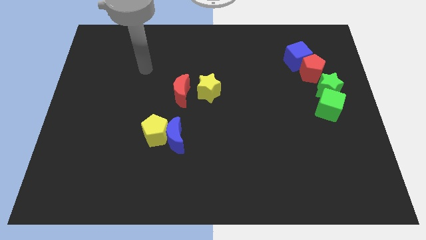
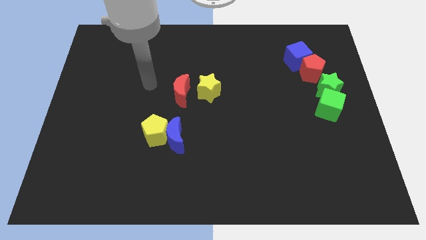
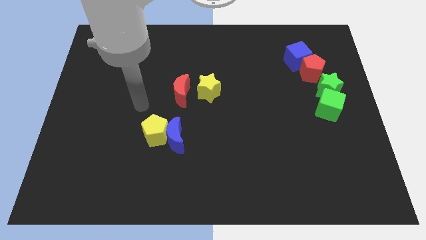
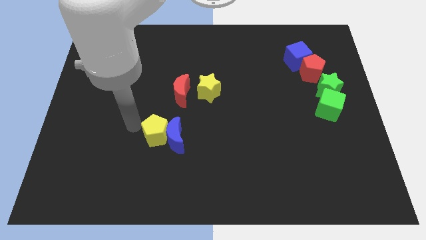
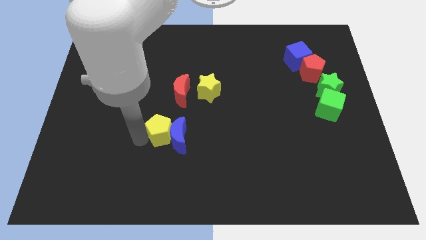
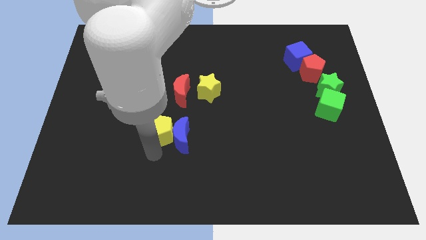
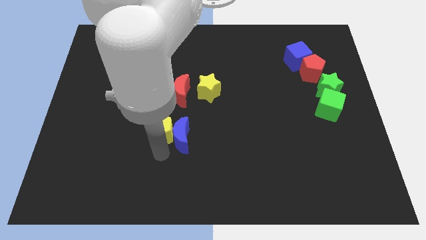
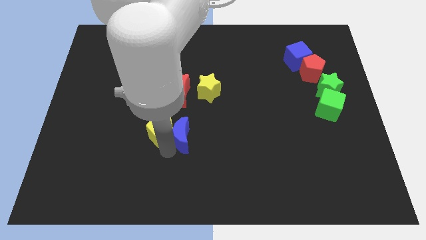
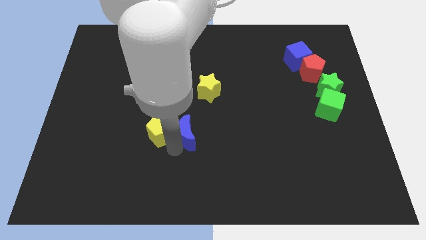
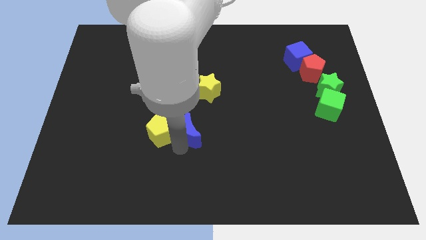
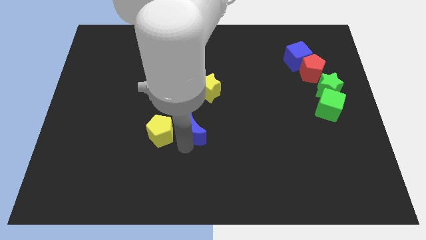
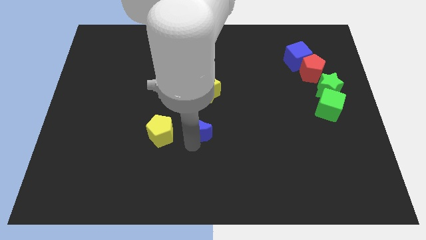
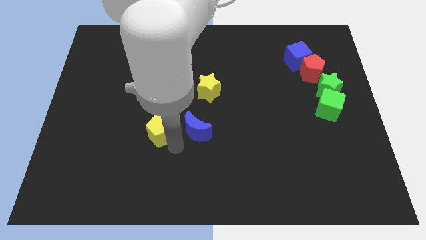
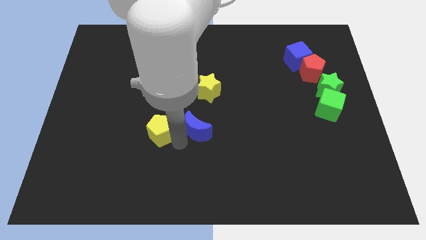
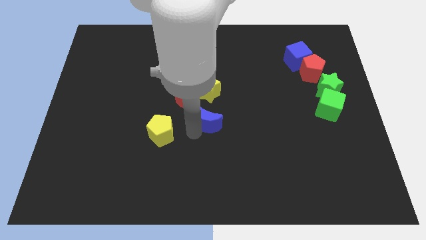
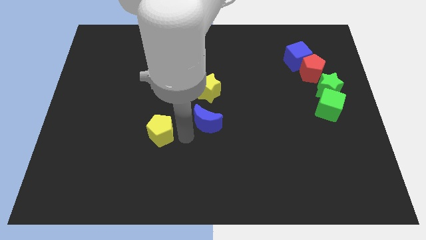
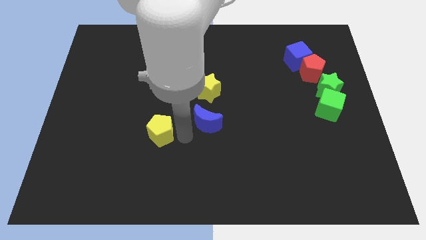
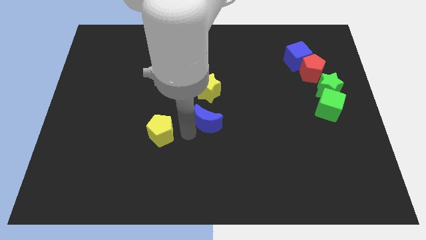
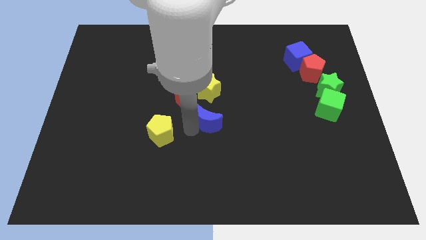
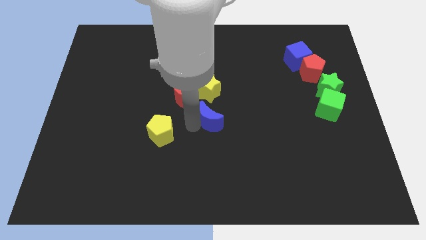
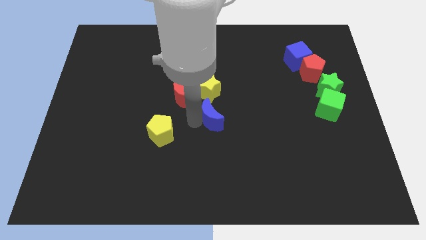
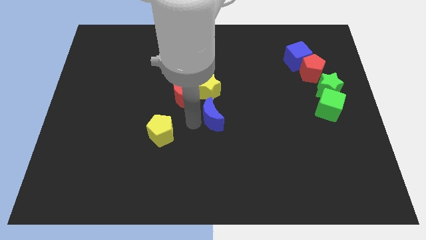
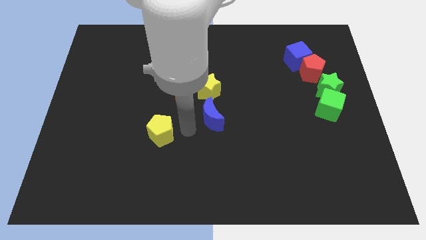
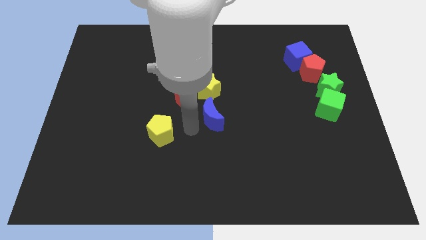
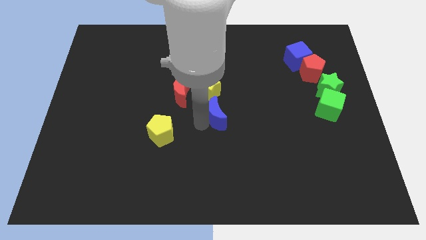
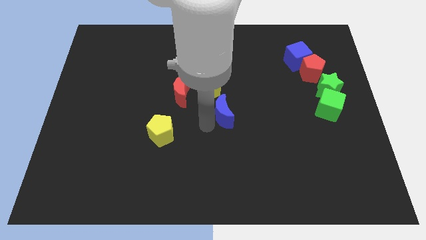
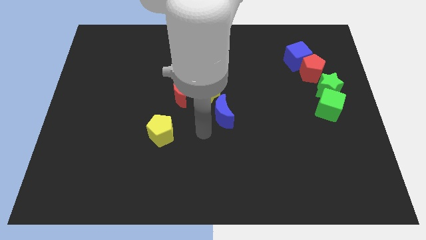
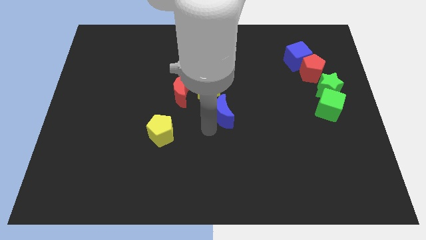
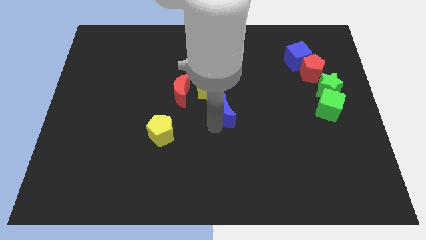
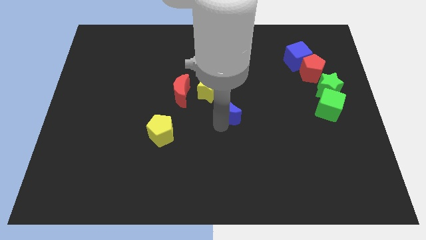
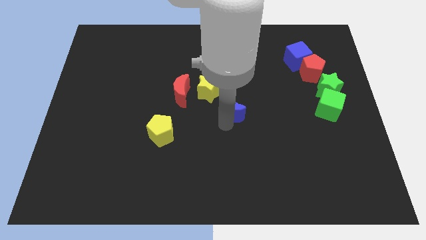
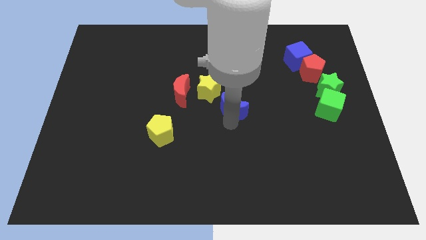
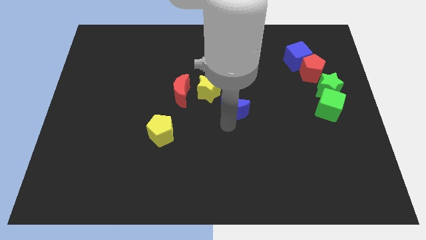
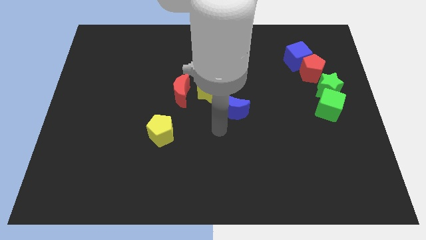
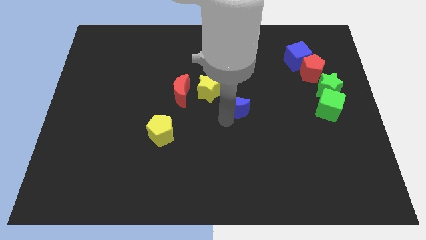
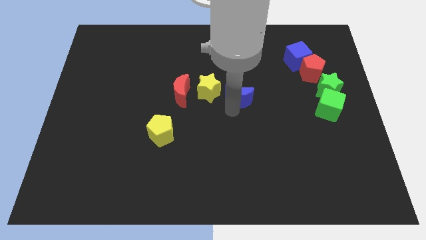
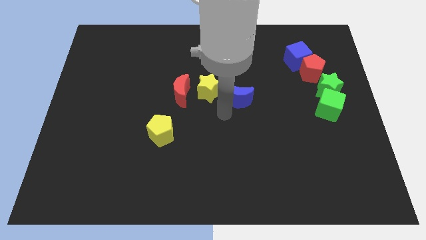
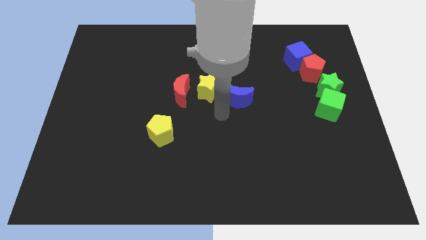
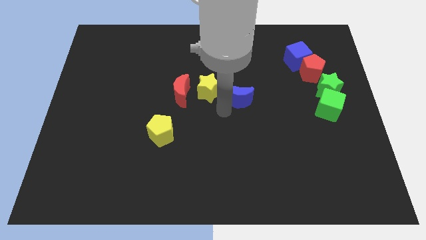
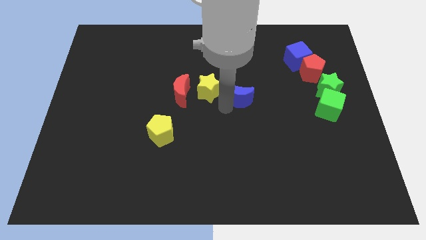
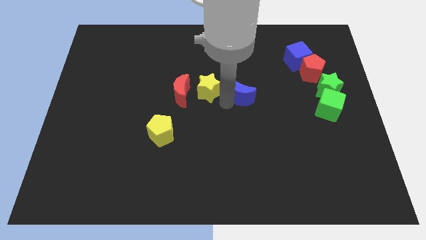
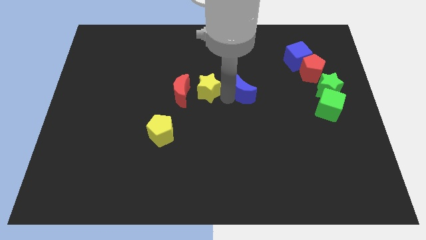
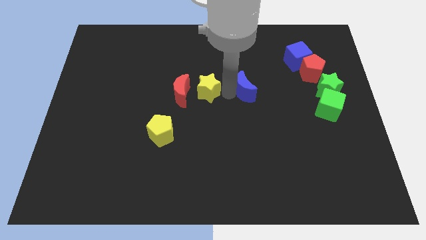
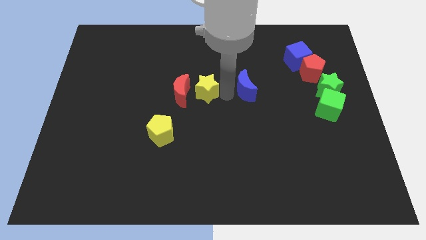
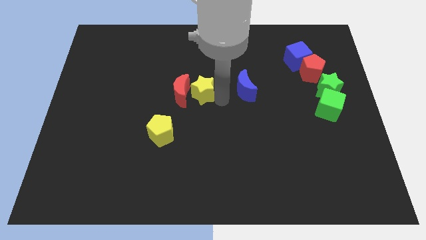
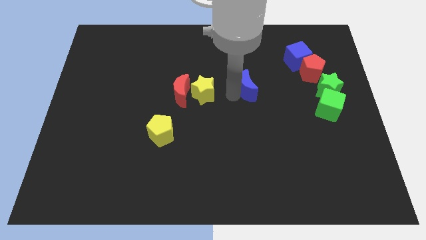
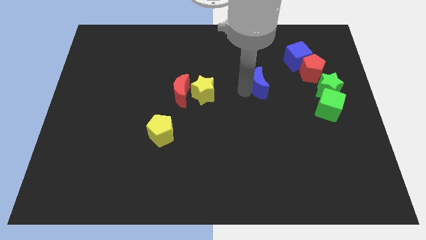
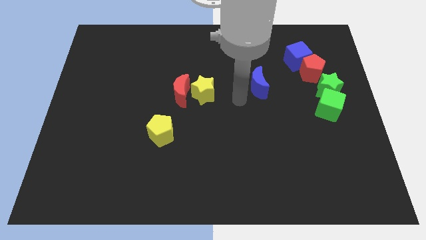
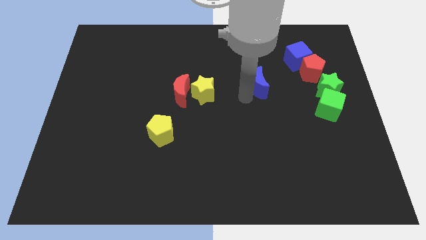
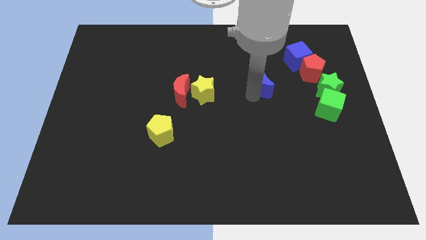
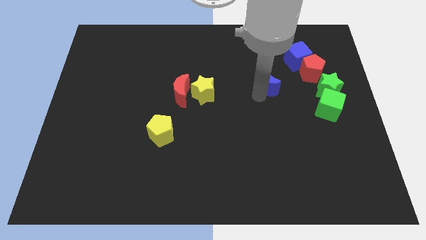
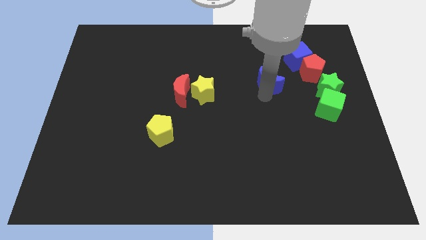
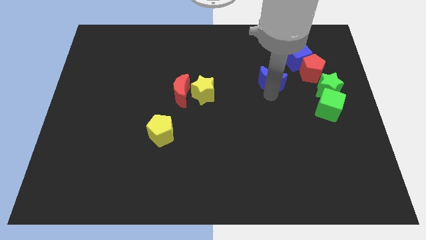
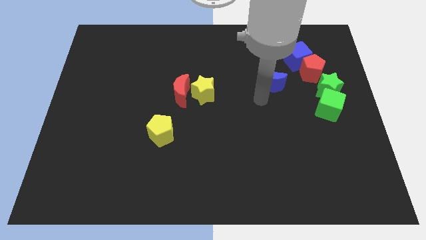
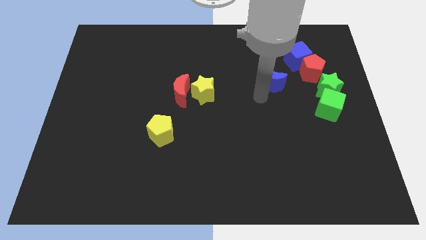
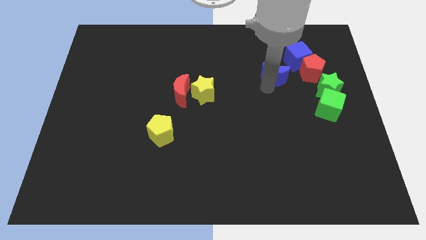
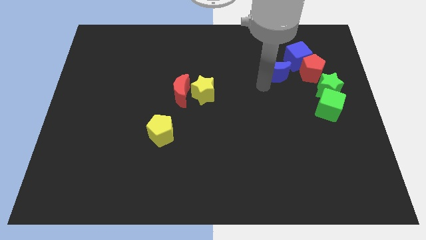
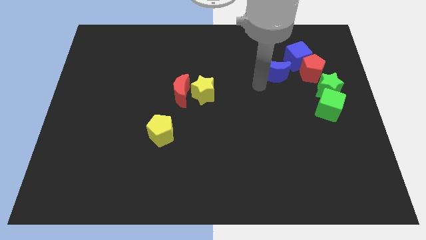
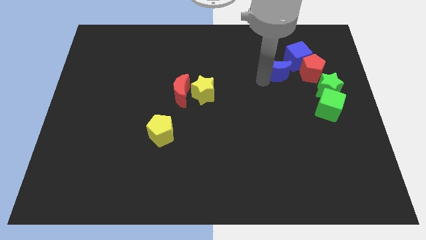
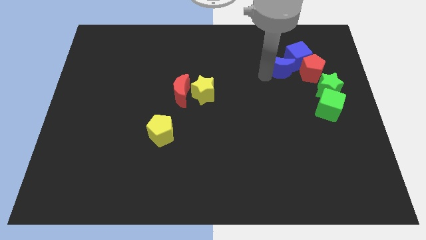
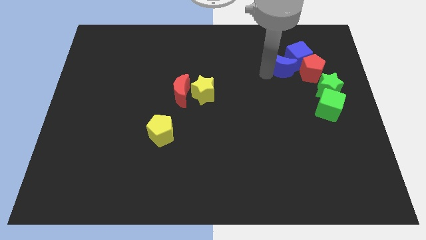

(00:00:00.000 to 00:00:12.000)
push the blue moon towards the blue cube

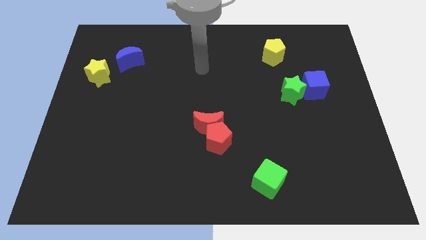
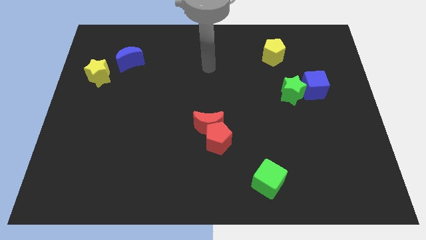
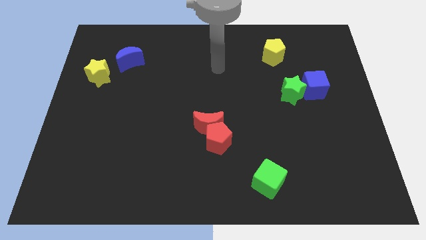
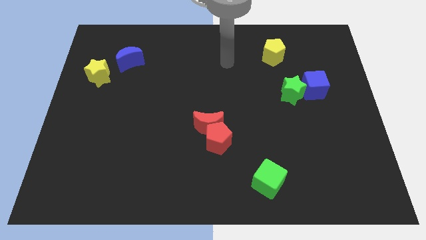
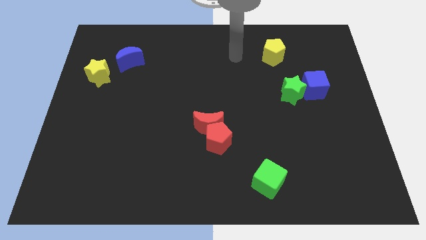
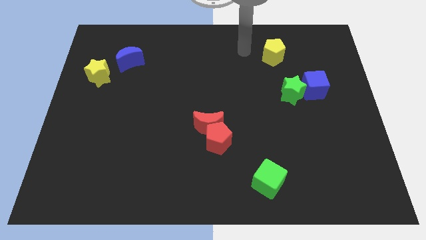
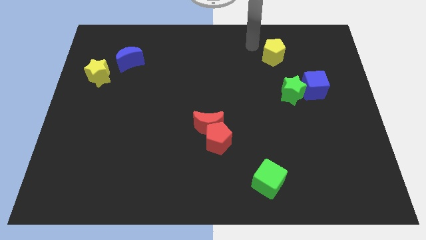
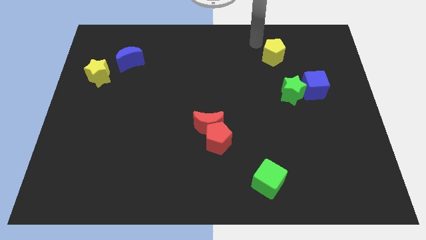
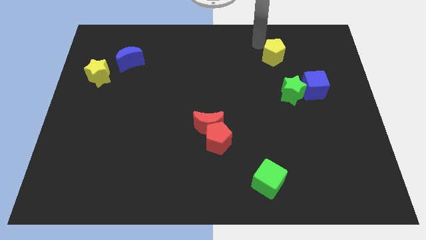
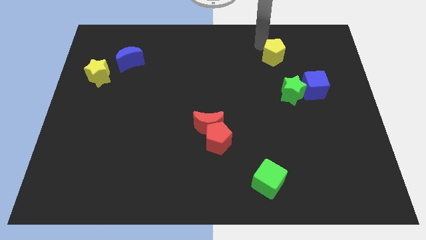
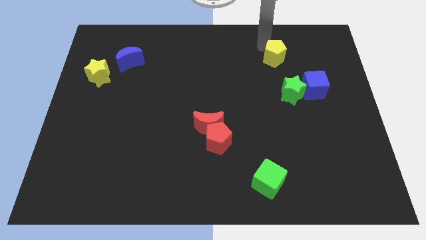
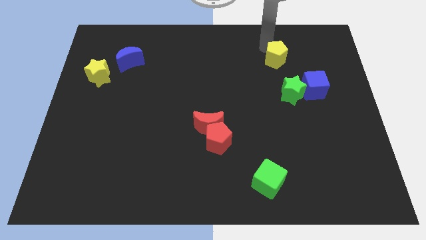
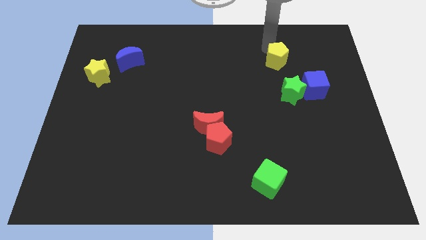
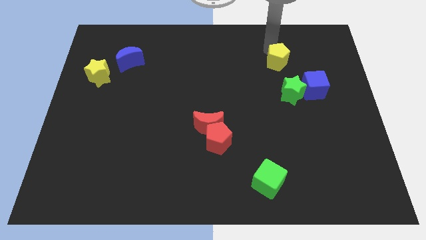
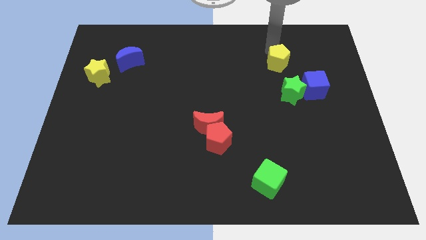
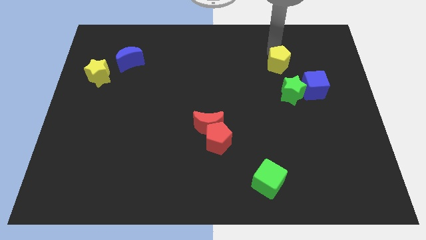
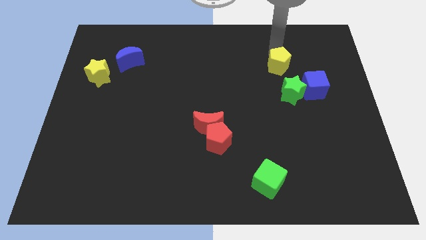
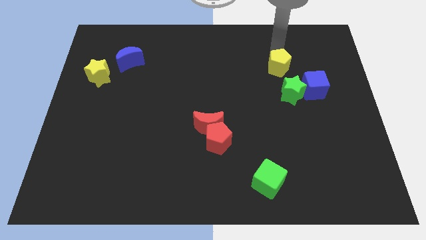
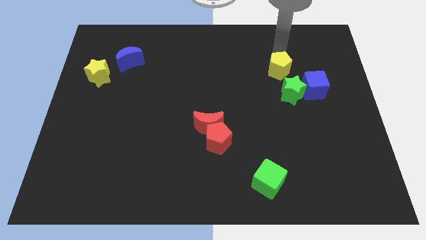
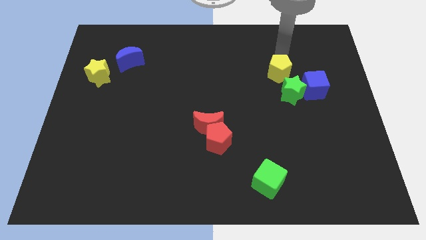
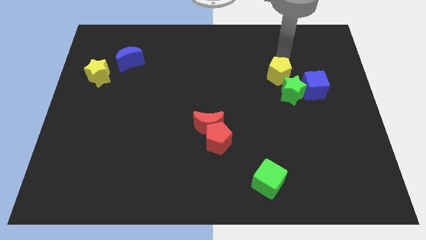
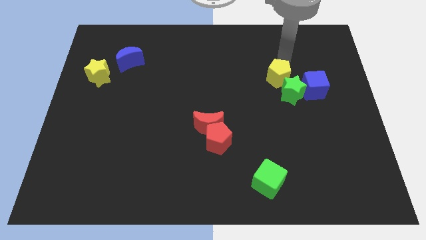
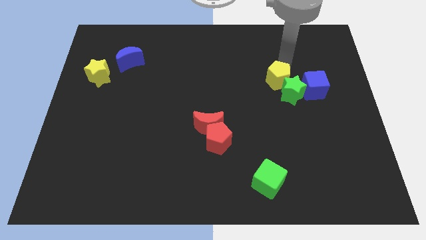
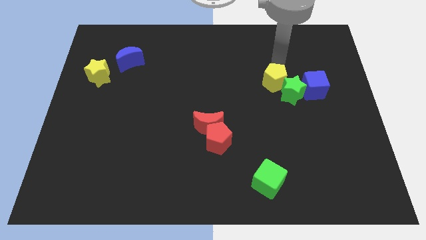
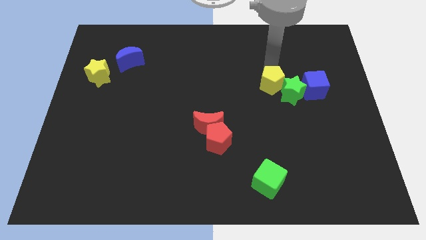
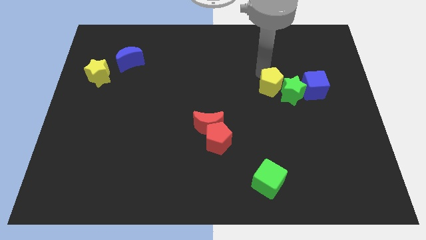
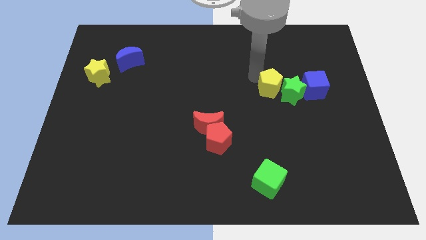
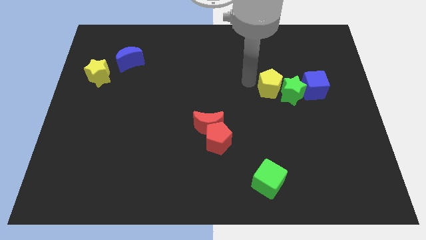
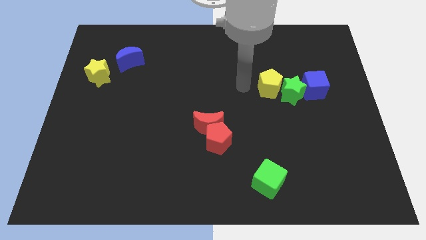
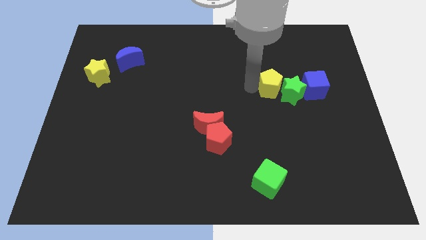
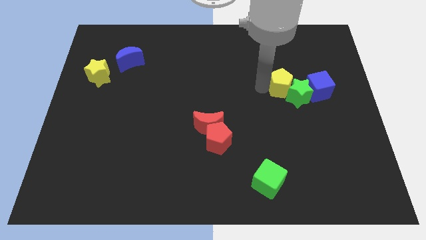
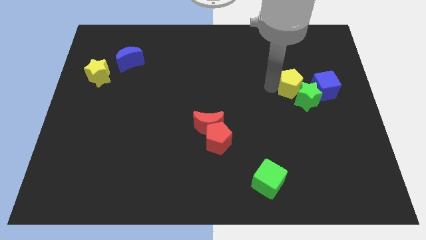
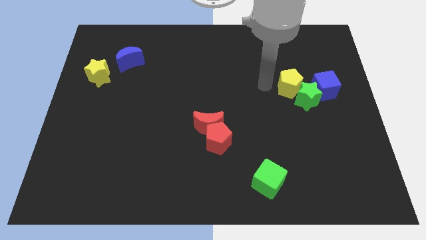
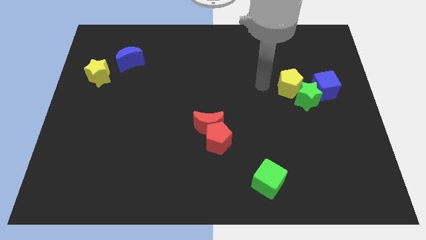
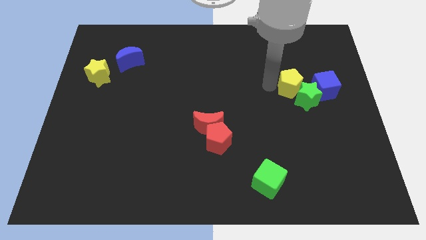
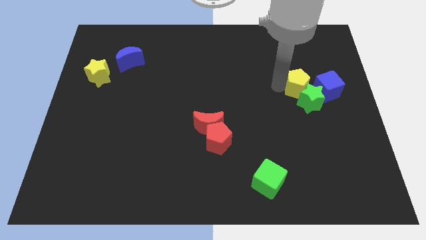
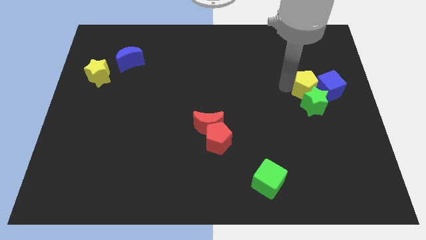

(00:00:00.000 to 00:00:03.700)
slide the yellow pentagon close to the blue cube
